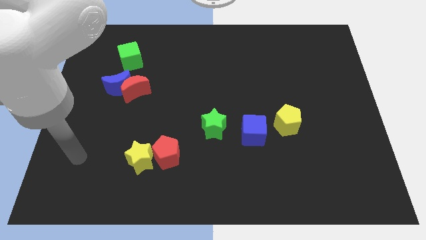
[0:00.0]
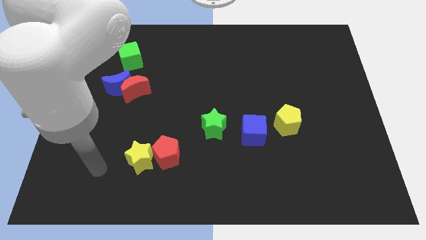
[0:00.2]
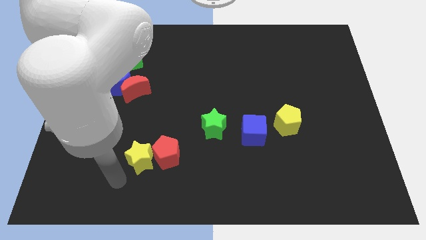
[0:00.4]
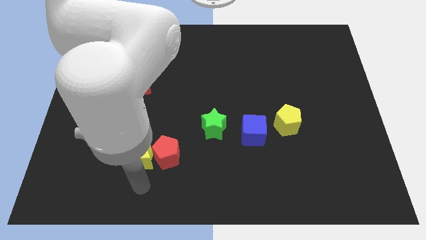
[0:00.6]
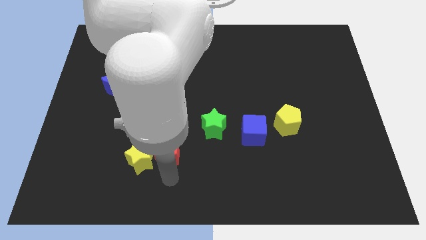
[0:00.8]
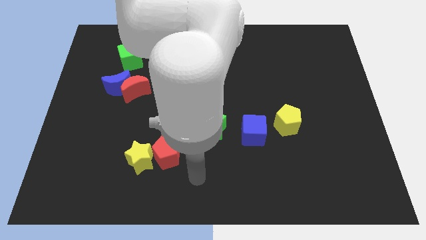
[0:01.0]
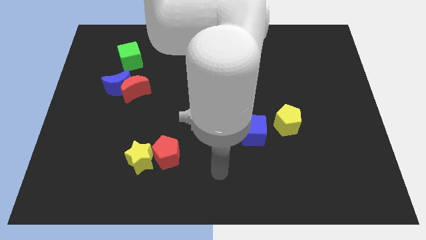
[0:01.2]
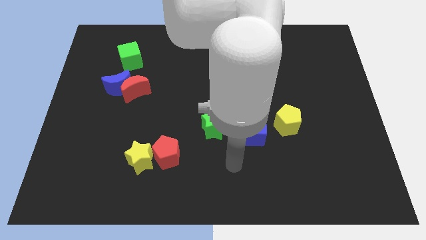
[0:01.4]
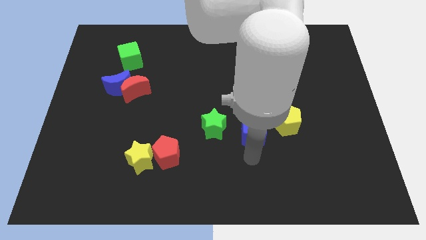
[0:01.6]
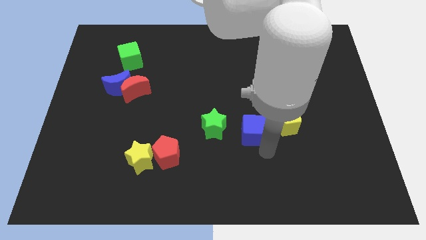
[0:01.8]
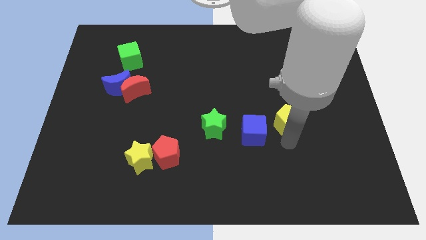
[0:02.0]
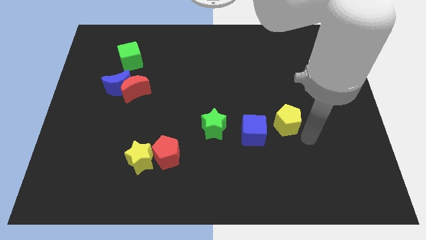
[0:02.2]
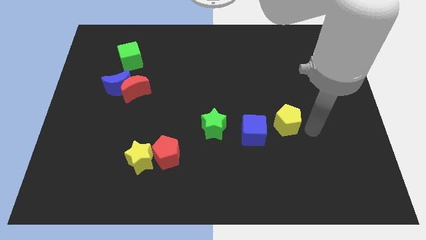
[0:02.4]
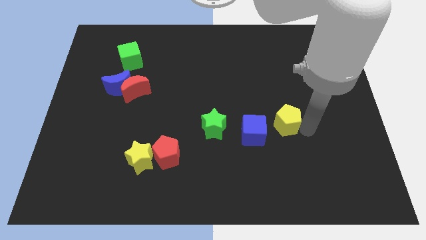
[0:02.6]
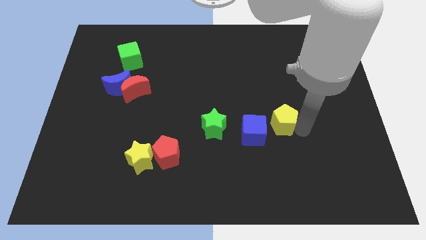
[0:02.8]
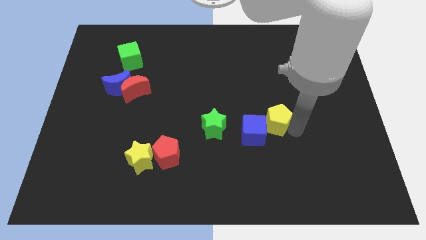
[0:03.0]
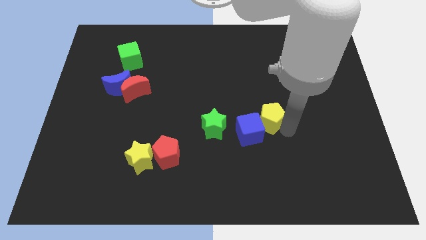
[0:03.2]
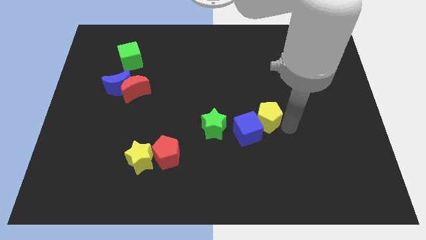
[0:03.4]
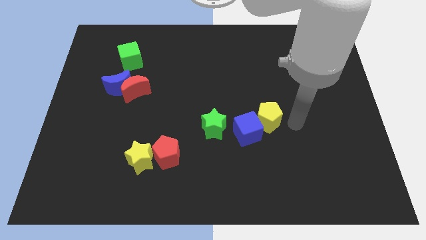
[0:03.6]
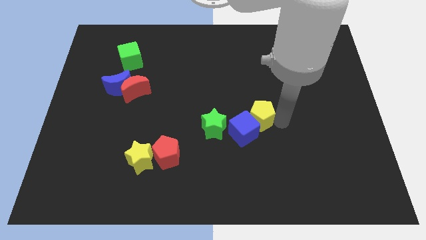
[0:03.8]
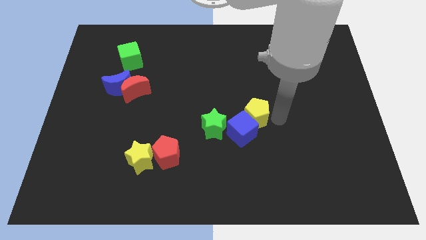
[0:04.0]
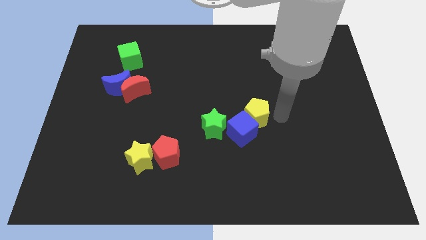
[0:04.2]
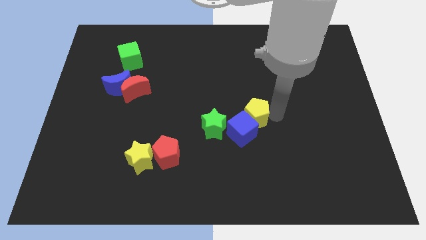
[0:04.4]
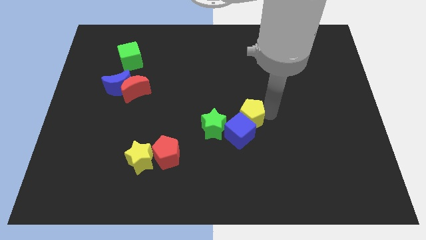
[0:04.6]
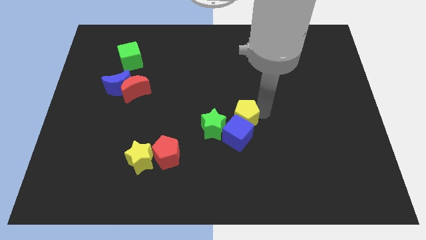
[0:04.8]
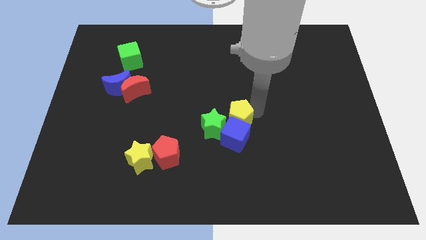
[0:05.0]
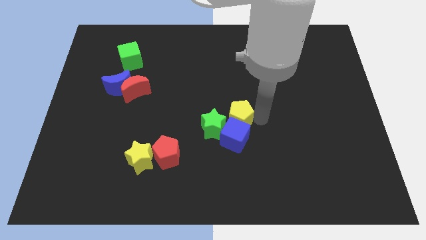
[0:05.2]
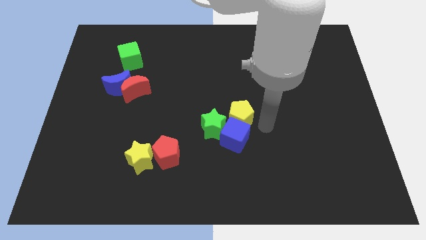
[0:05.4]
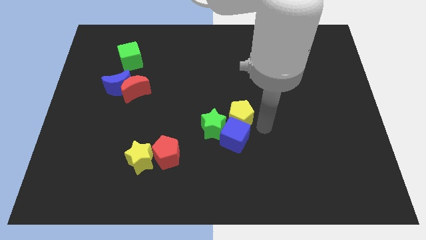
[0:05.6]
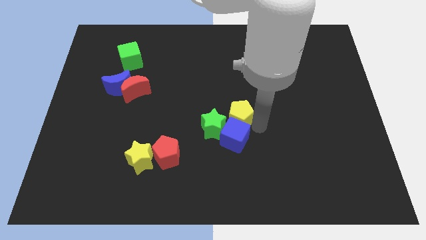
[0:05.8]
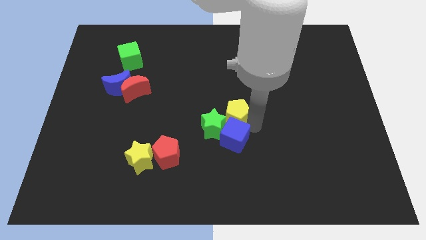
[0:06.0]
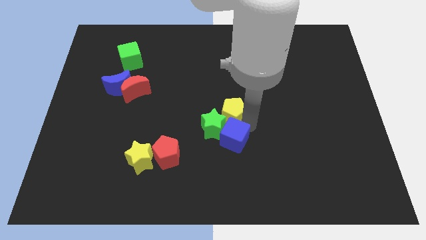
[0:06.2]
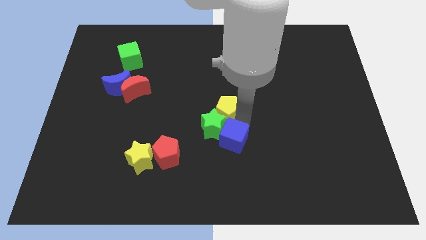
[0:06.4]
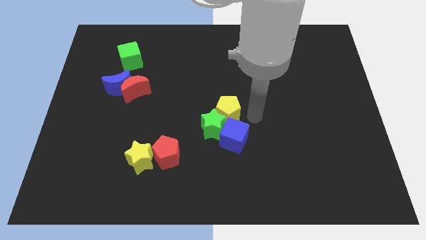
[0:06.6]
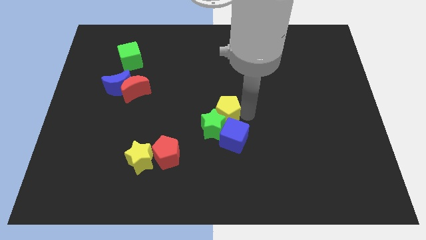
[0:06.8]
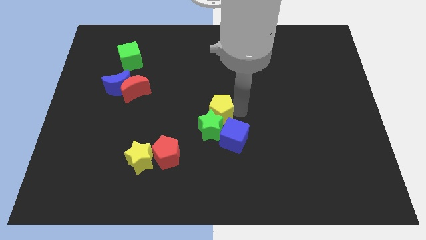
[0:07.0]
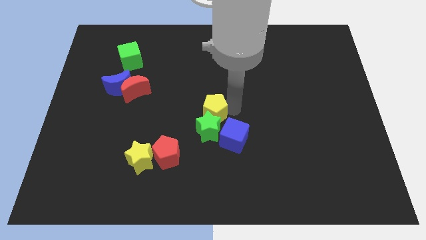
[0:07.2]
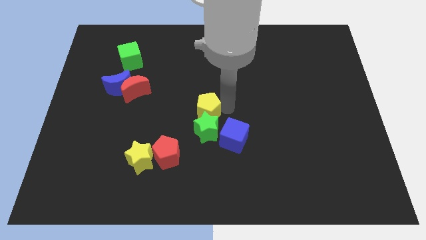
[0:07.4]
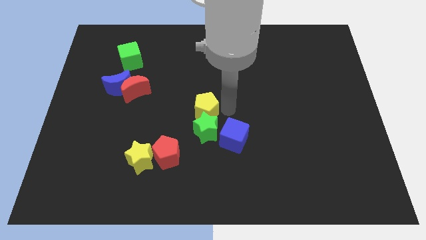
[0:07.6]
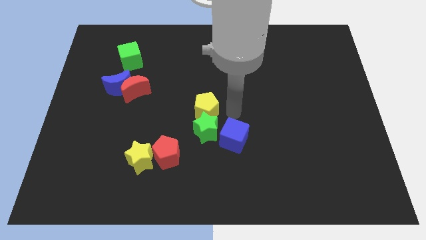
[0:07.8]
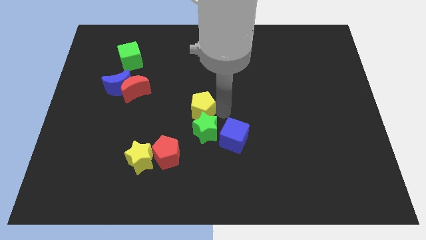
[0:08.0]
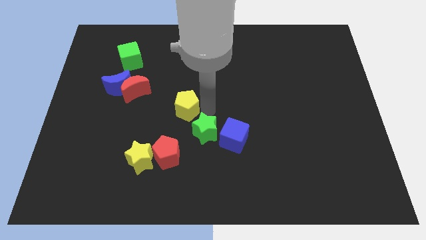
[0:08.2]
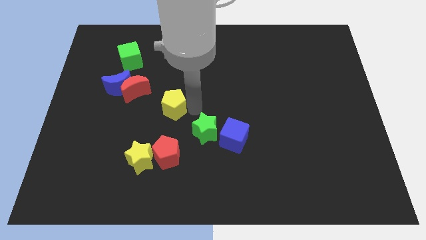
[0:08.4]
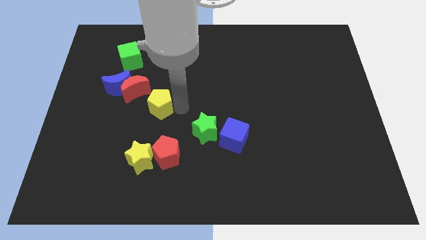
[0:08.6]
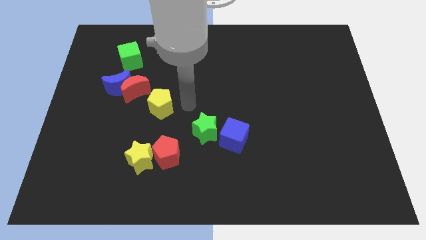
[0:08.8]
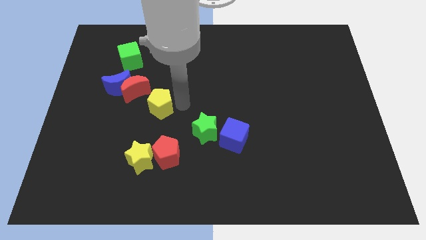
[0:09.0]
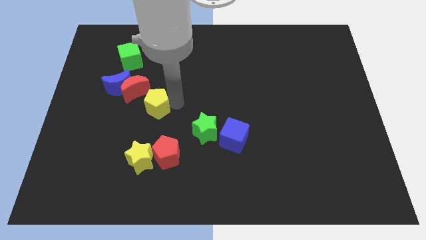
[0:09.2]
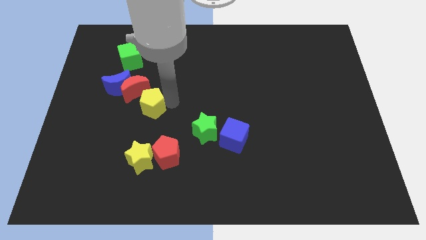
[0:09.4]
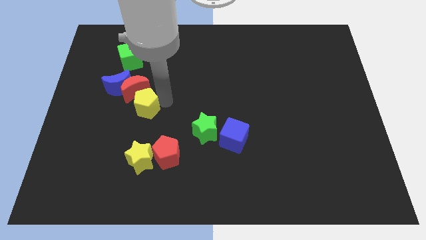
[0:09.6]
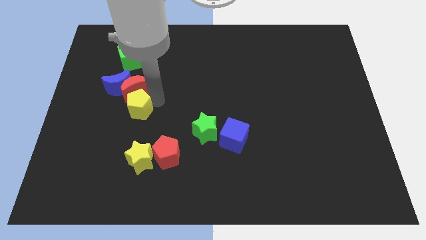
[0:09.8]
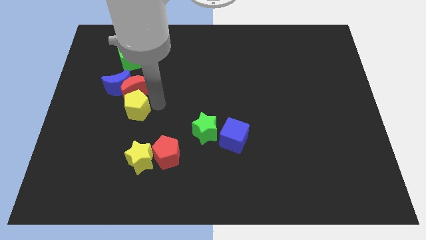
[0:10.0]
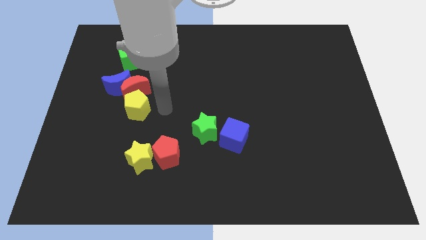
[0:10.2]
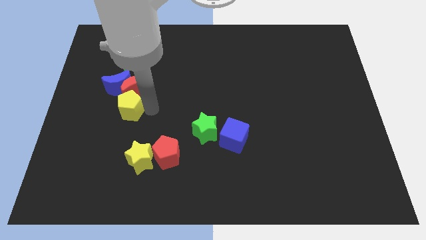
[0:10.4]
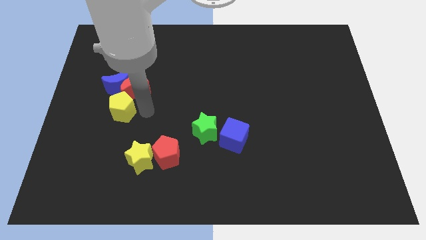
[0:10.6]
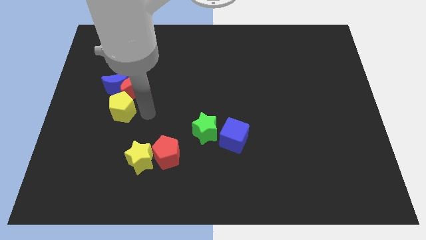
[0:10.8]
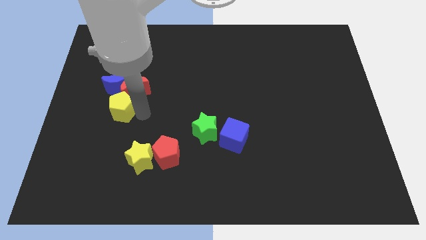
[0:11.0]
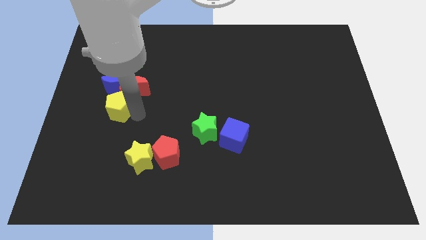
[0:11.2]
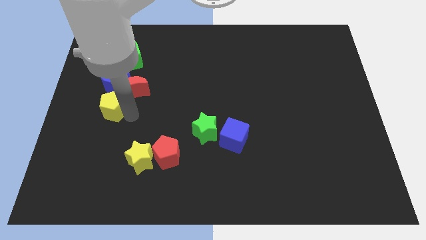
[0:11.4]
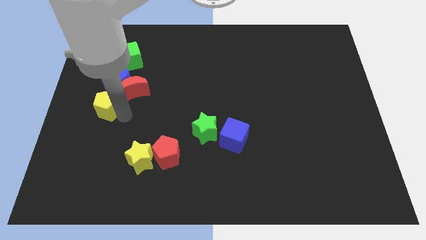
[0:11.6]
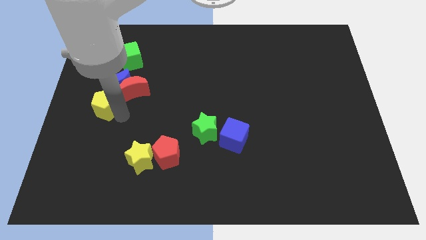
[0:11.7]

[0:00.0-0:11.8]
move the yellow pentagon to the left side of the board

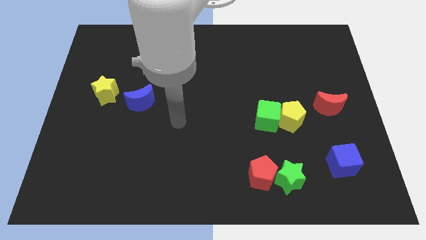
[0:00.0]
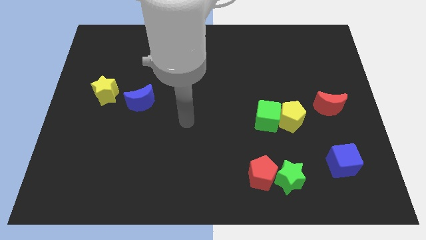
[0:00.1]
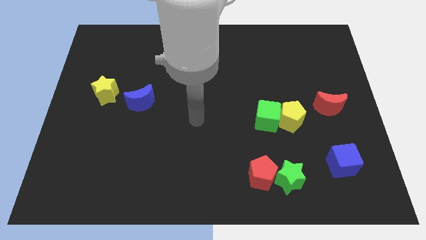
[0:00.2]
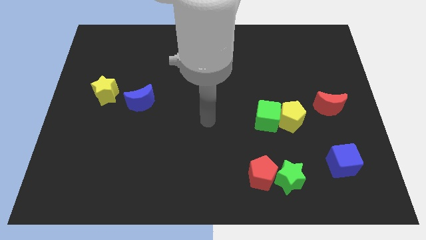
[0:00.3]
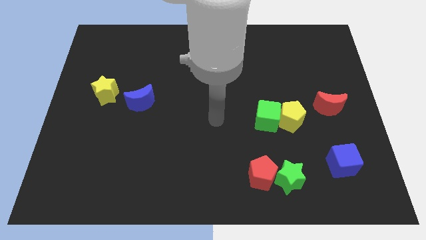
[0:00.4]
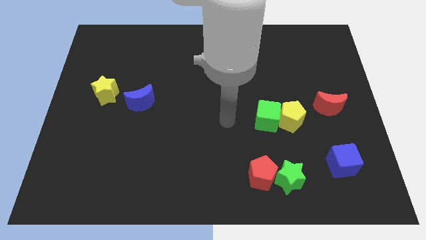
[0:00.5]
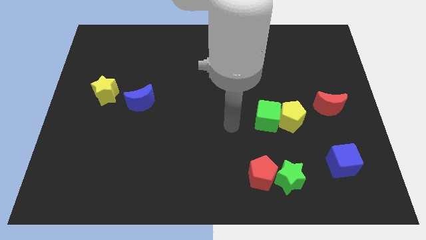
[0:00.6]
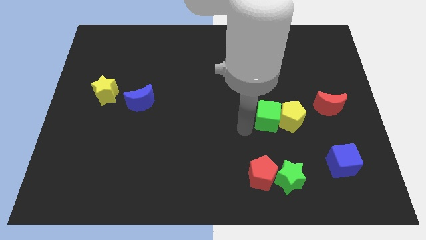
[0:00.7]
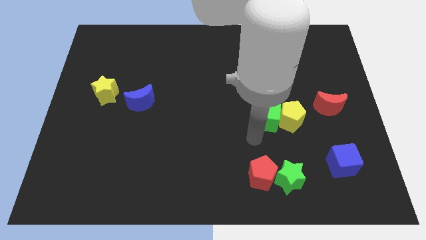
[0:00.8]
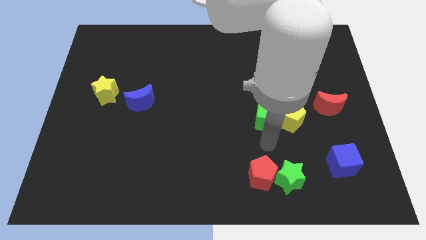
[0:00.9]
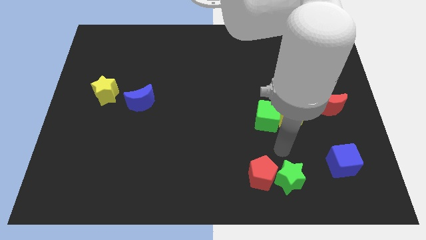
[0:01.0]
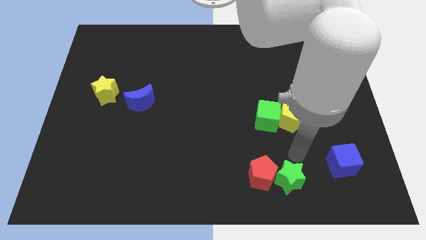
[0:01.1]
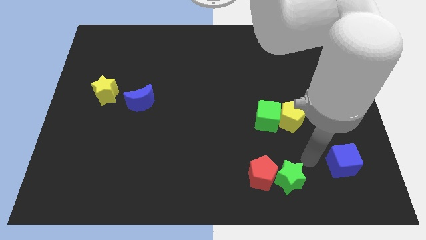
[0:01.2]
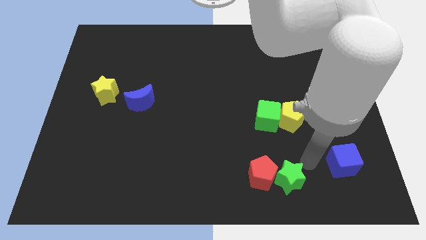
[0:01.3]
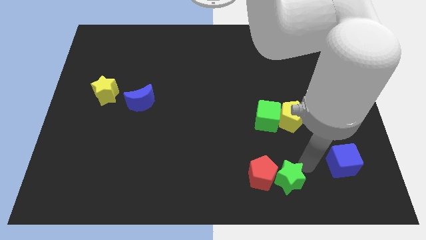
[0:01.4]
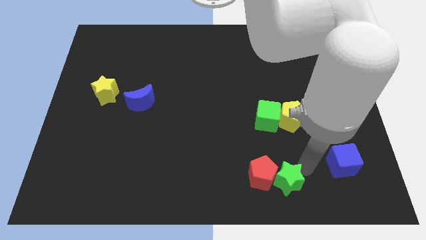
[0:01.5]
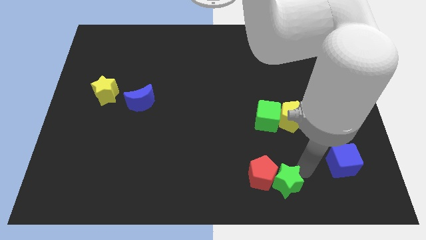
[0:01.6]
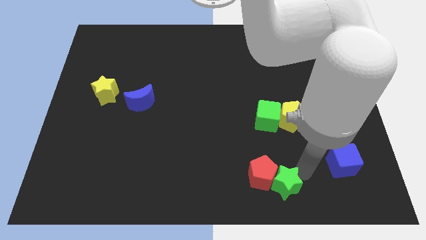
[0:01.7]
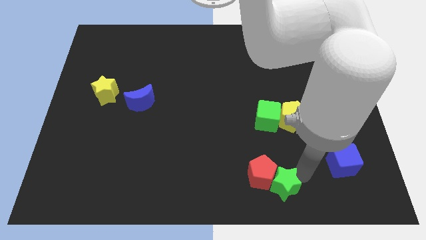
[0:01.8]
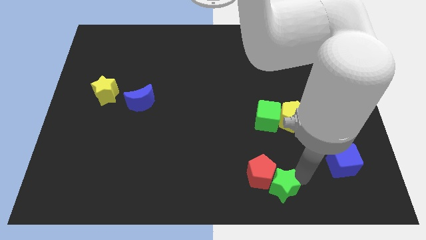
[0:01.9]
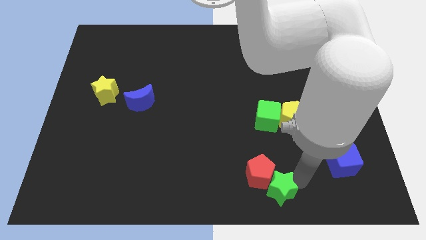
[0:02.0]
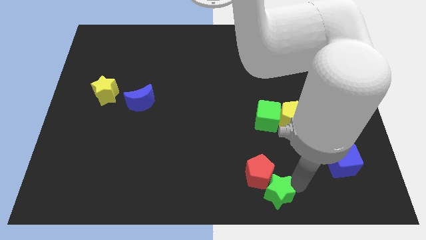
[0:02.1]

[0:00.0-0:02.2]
push the green star to the bottom side
